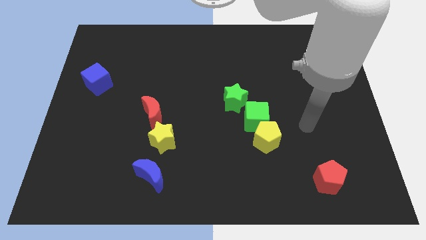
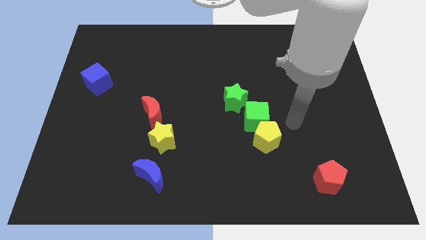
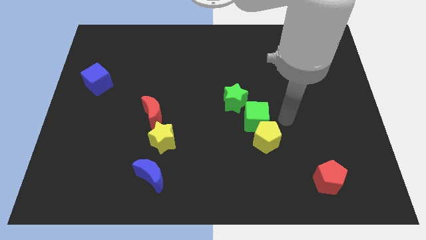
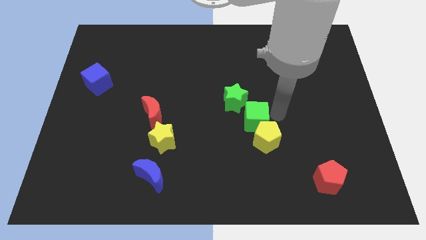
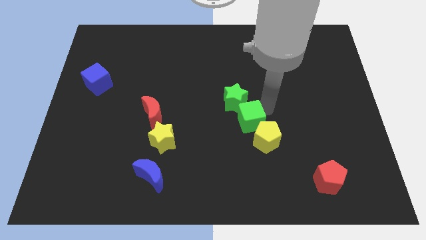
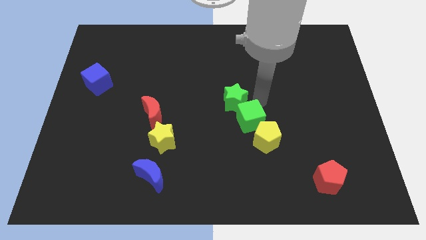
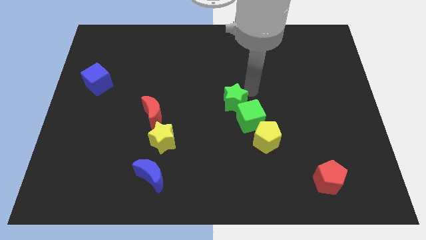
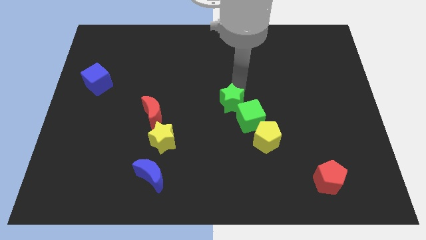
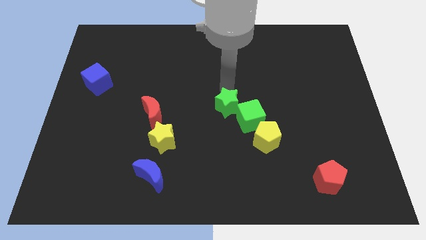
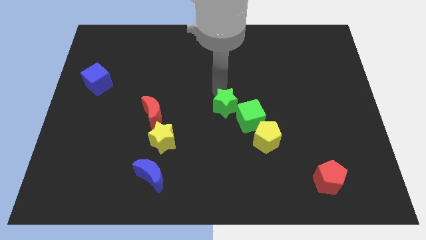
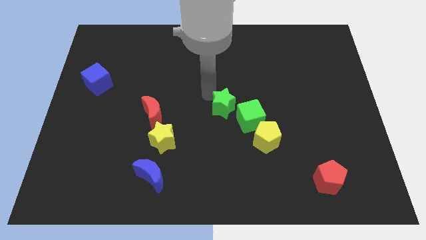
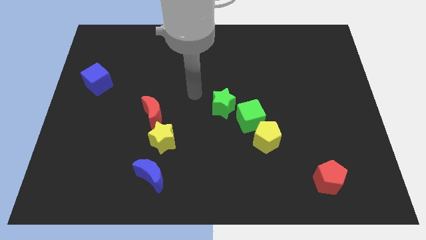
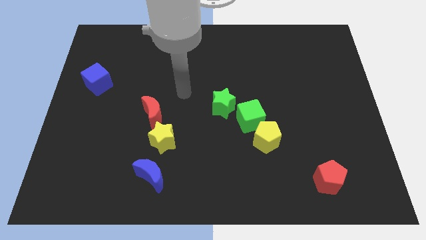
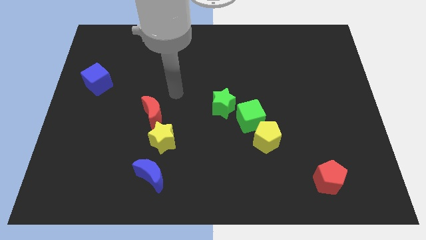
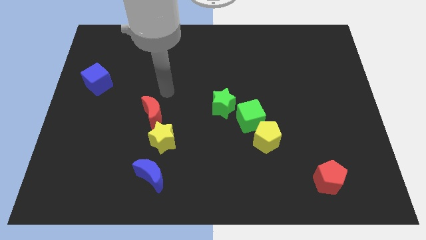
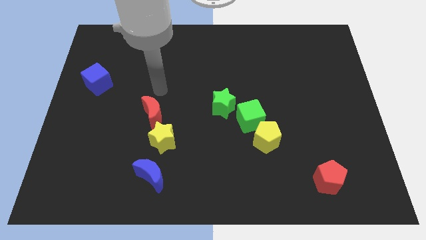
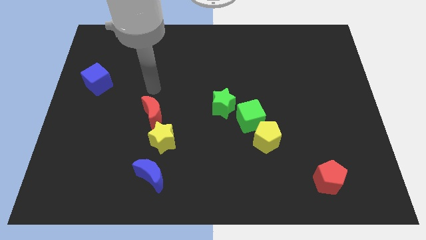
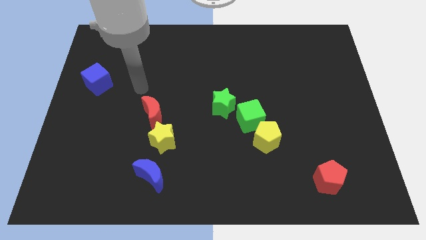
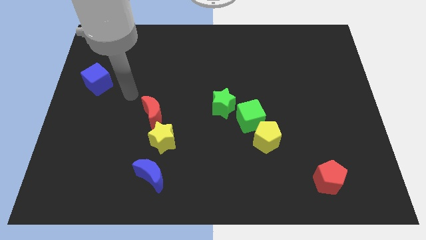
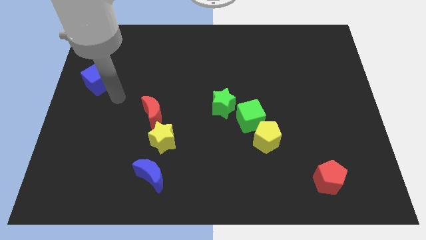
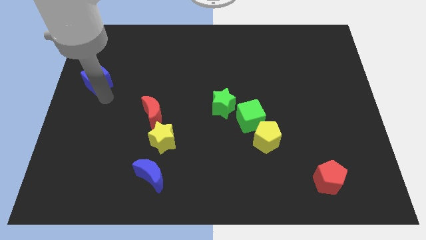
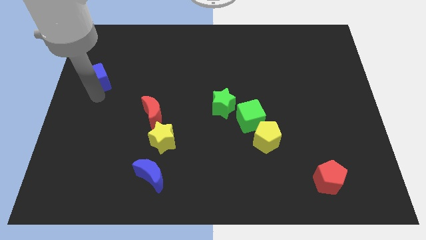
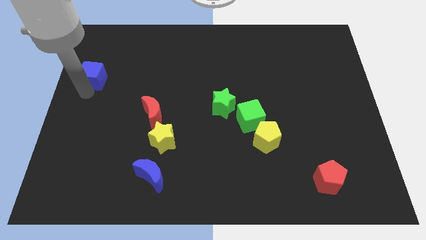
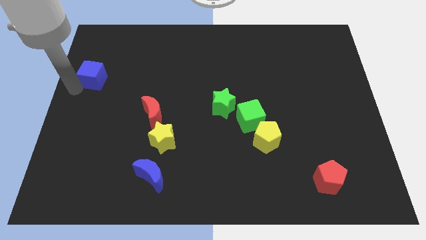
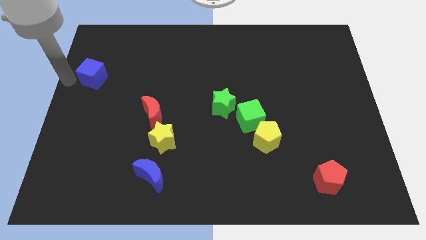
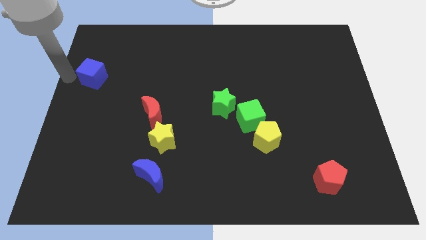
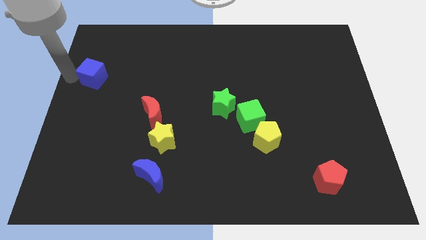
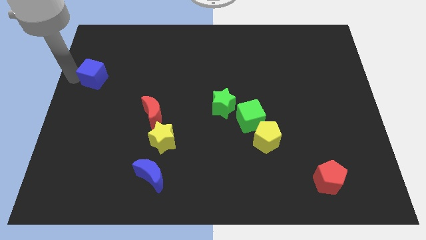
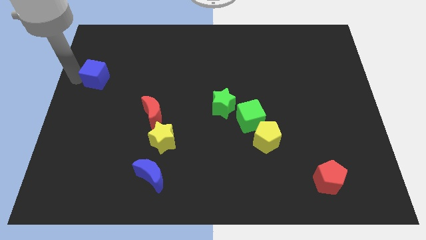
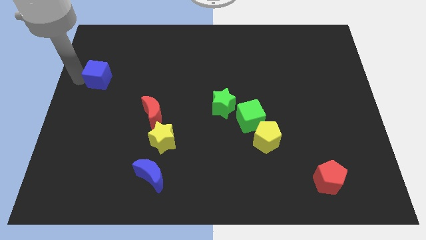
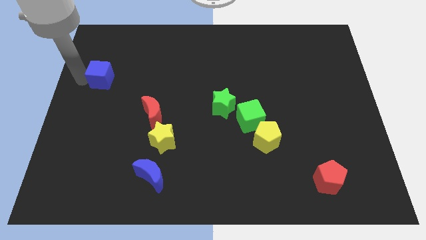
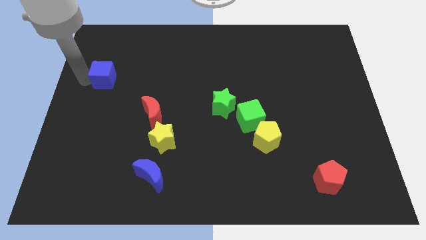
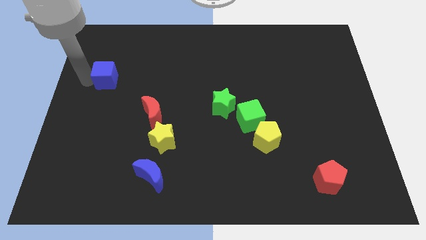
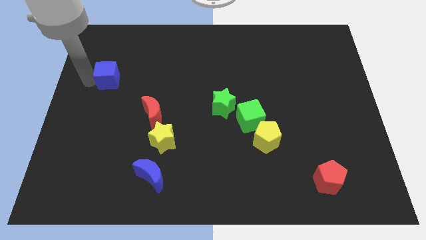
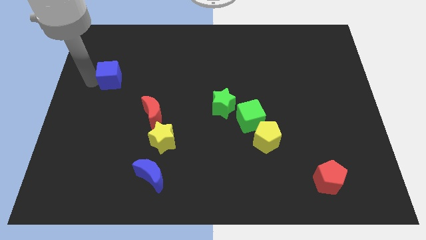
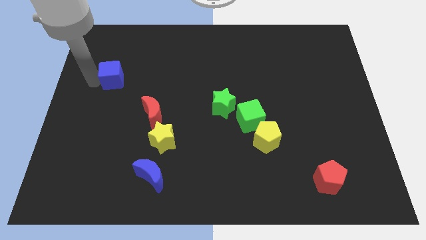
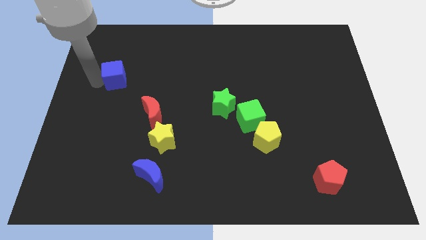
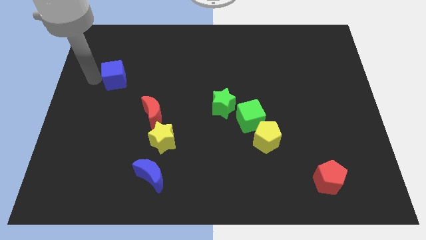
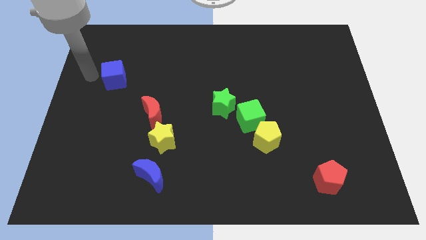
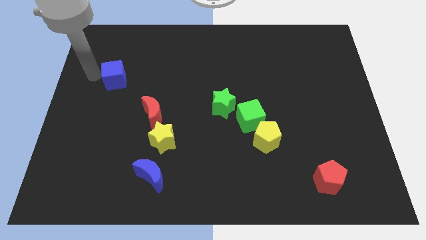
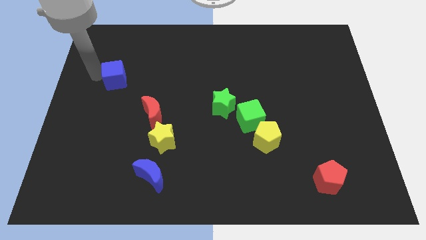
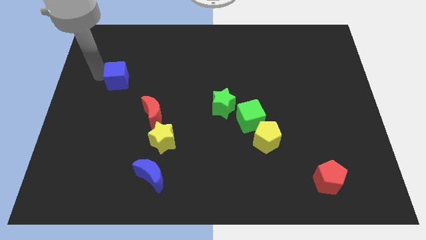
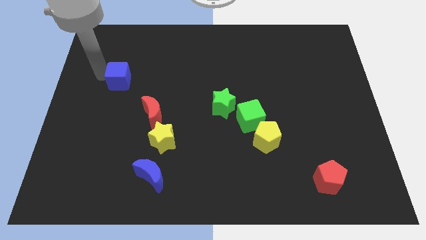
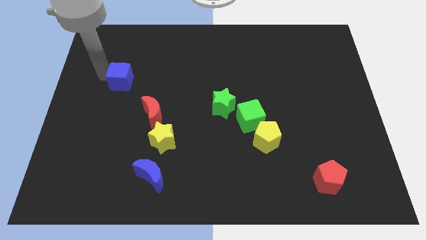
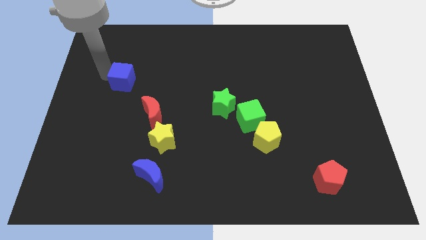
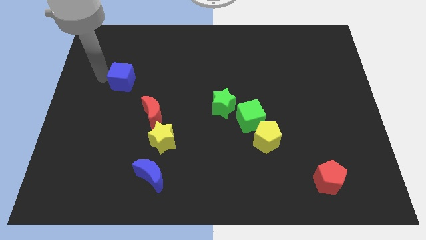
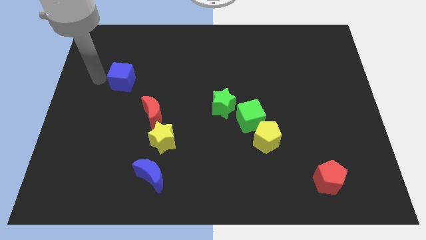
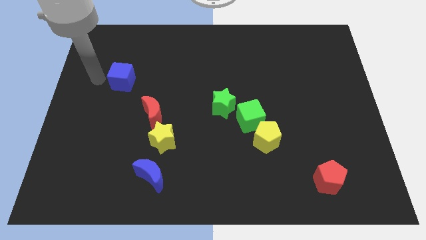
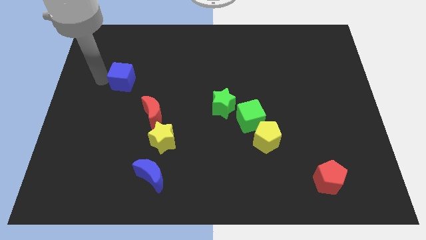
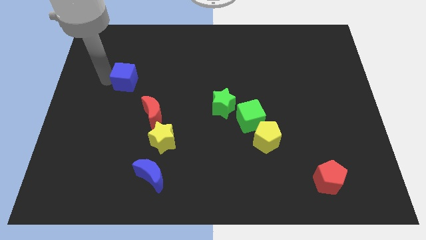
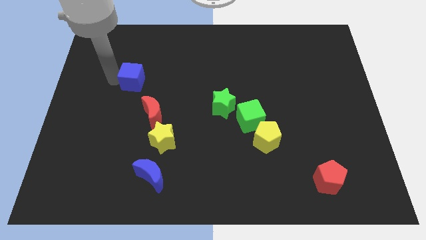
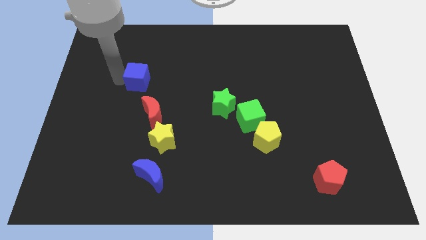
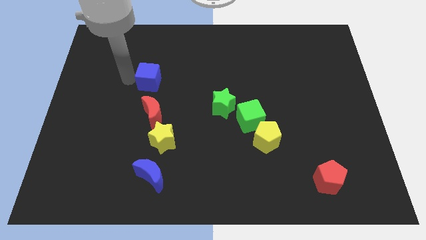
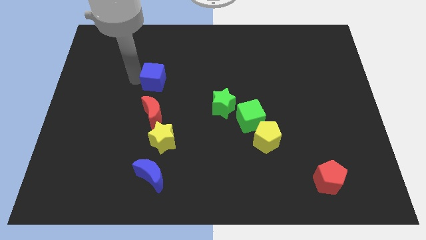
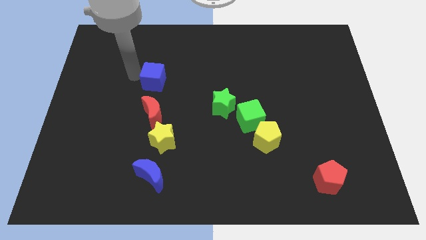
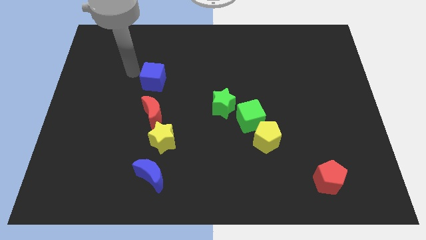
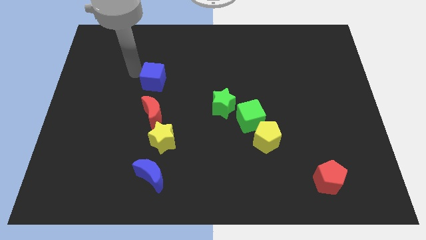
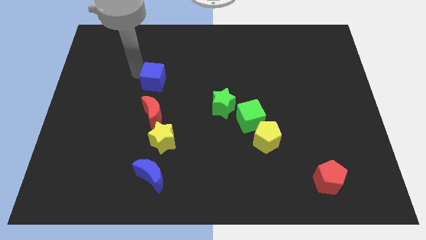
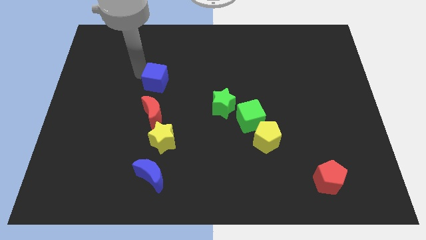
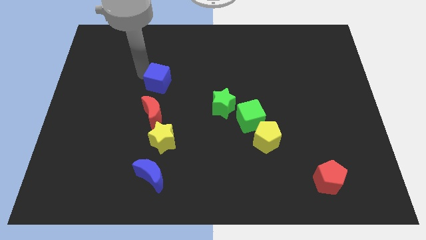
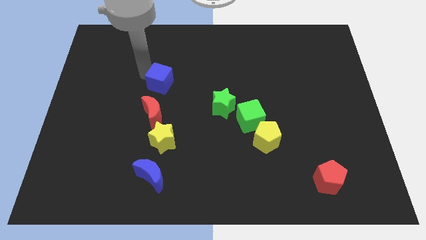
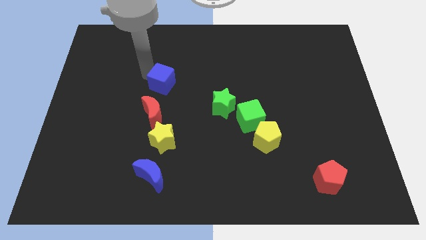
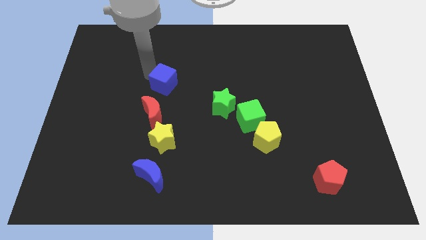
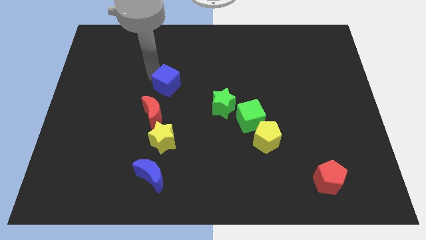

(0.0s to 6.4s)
slide the blue cube to the middle
